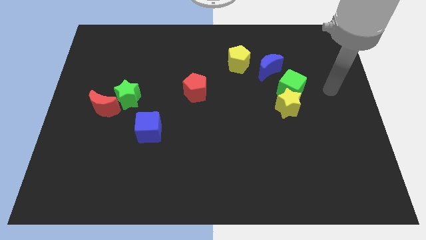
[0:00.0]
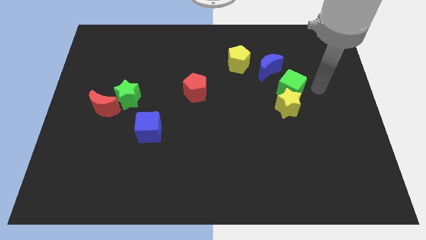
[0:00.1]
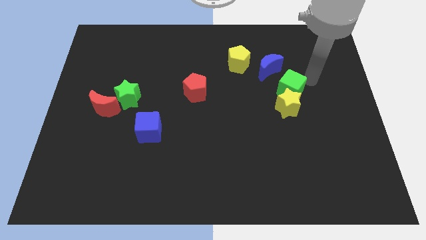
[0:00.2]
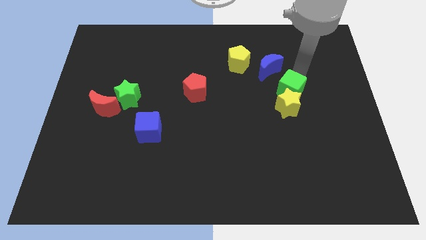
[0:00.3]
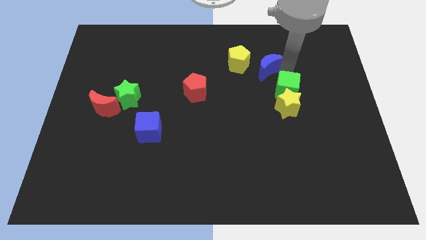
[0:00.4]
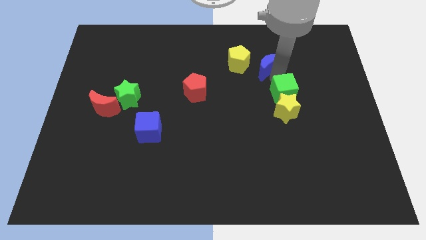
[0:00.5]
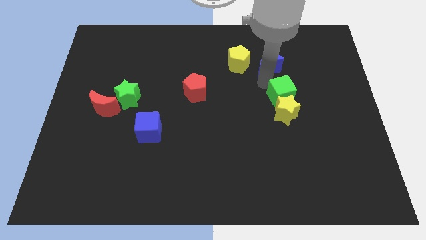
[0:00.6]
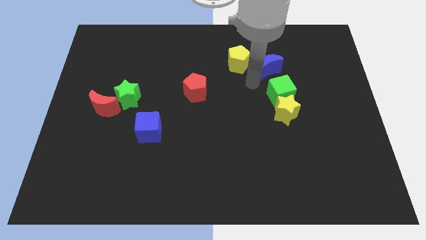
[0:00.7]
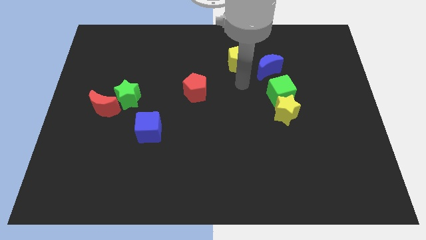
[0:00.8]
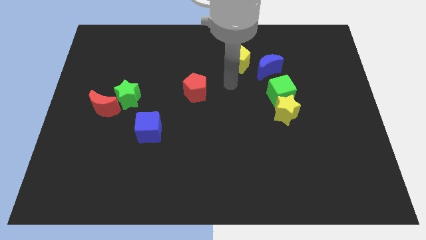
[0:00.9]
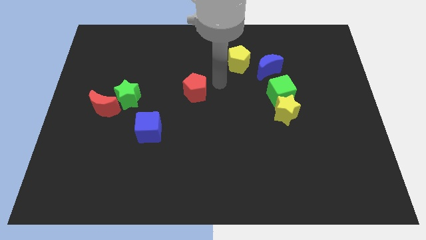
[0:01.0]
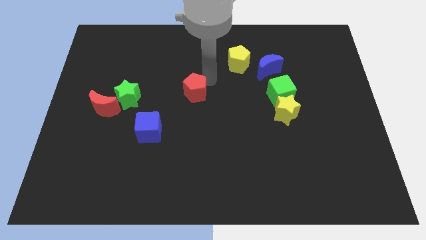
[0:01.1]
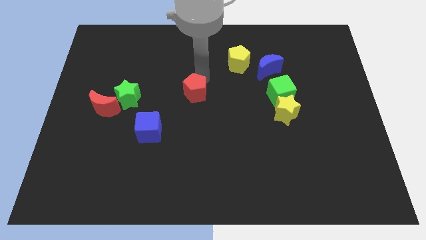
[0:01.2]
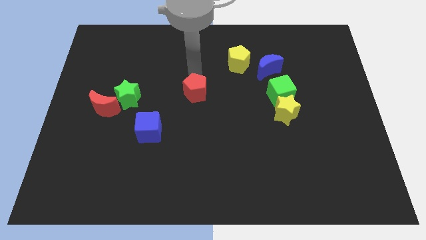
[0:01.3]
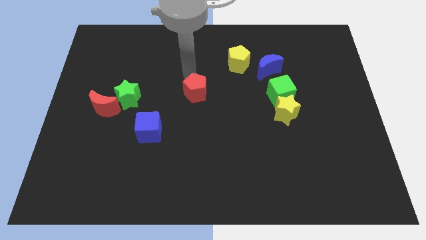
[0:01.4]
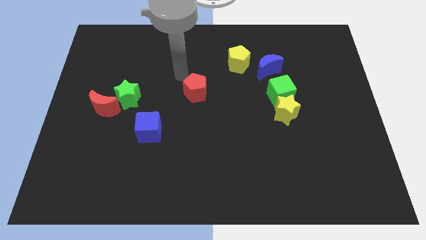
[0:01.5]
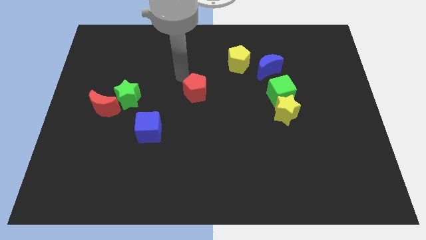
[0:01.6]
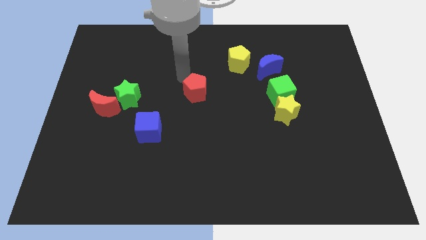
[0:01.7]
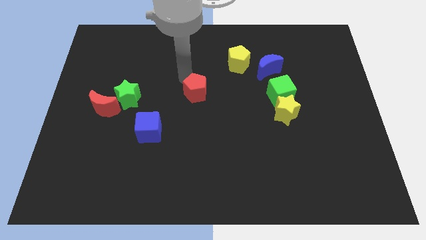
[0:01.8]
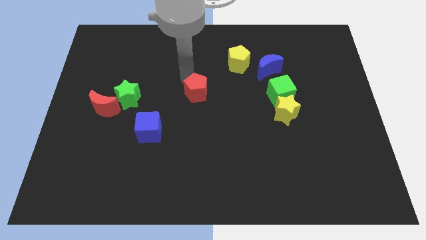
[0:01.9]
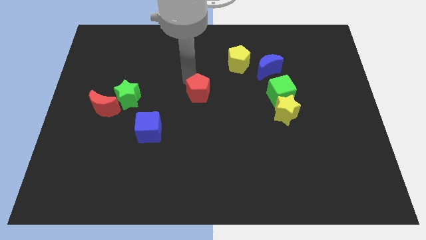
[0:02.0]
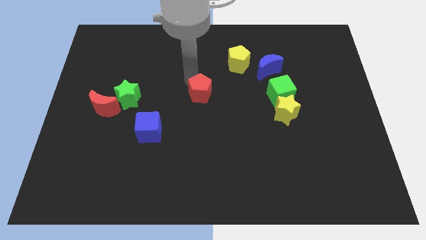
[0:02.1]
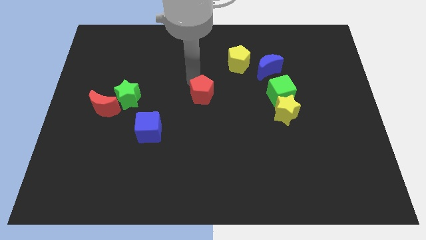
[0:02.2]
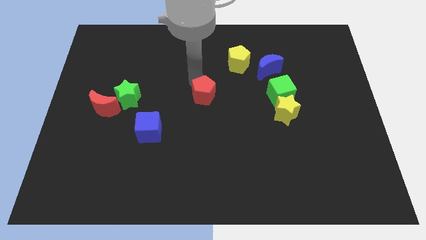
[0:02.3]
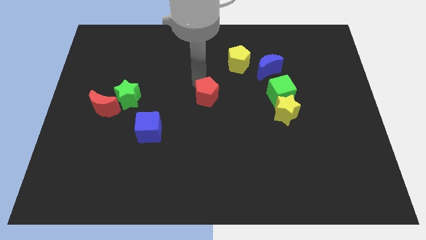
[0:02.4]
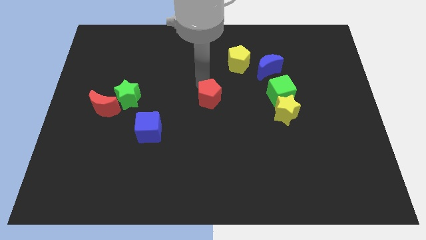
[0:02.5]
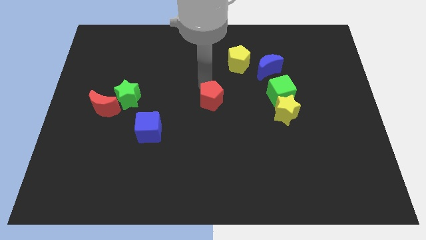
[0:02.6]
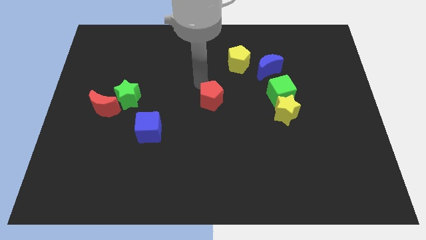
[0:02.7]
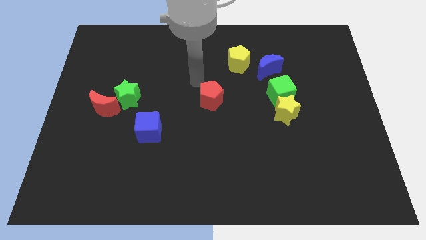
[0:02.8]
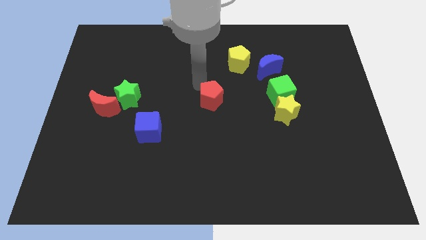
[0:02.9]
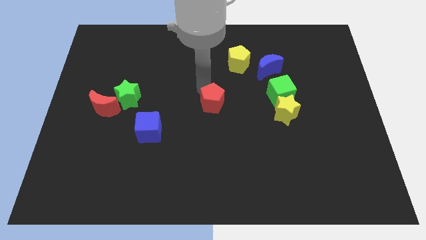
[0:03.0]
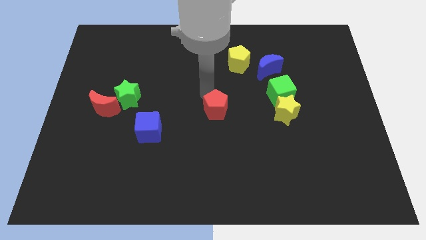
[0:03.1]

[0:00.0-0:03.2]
push the red pentagon slightly downwards and to the right

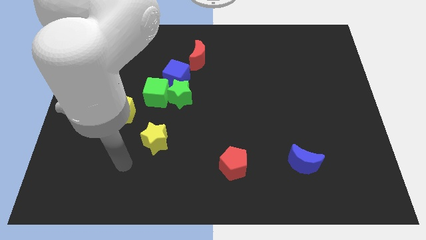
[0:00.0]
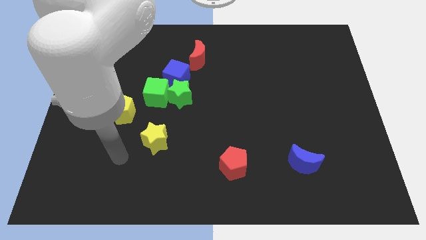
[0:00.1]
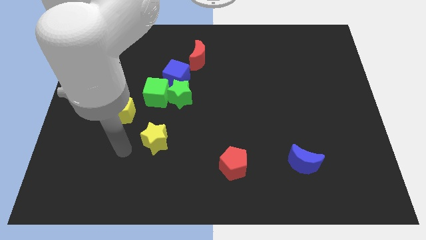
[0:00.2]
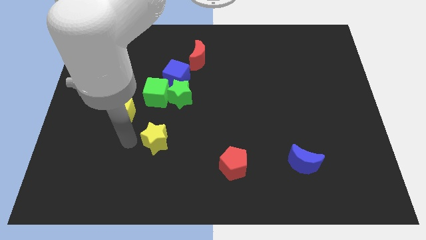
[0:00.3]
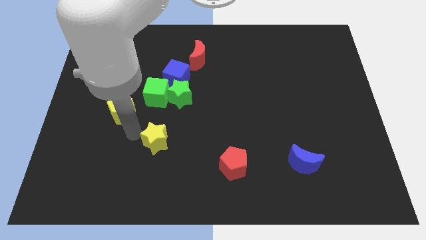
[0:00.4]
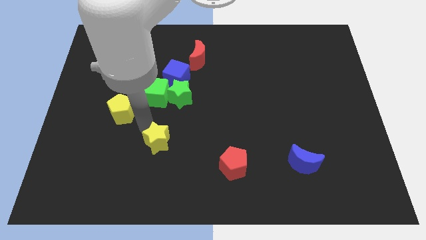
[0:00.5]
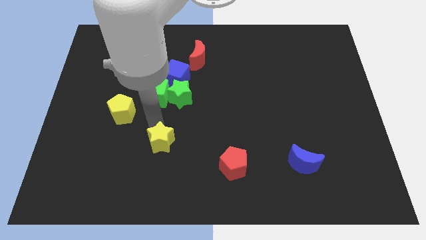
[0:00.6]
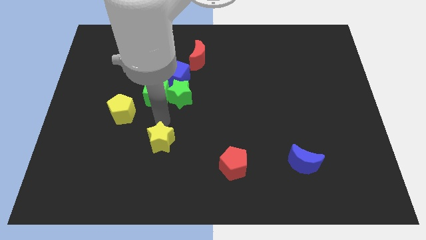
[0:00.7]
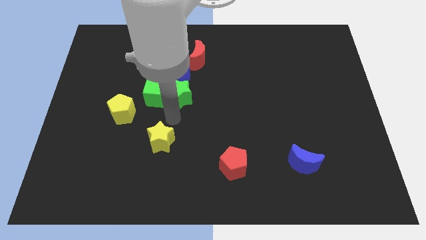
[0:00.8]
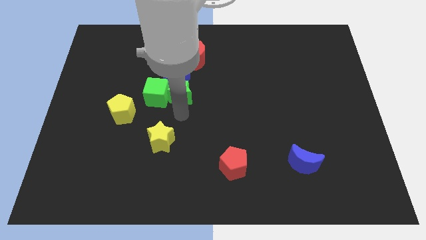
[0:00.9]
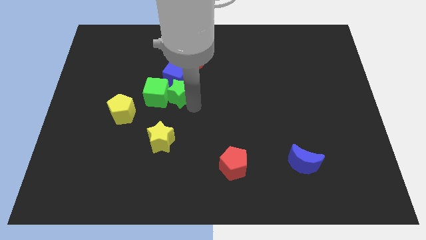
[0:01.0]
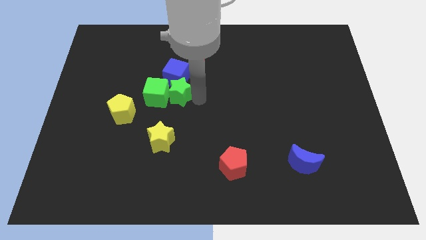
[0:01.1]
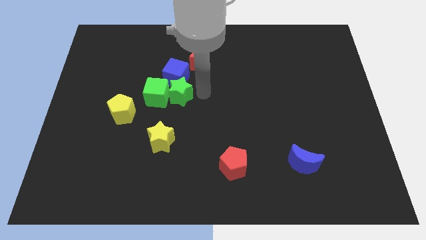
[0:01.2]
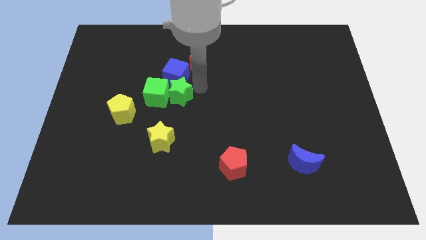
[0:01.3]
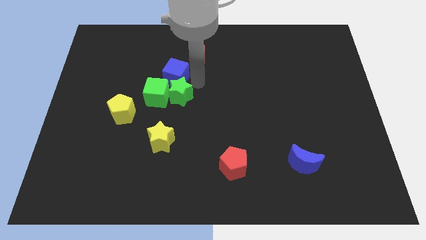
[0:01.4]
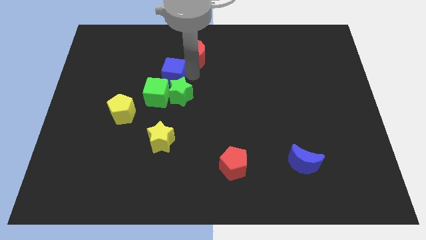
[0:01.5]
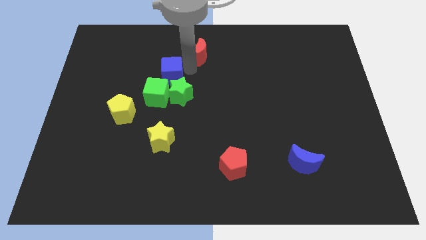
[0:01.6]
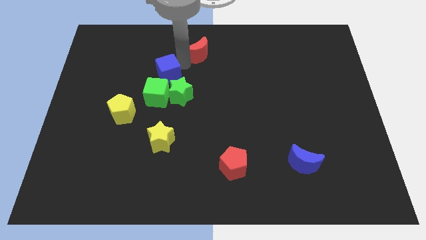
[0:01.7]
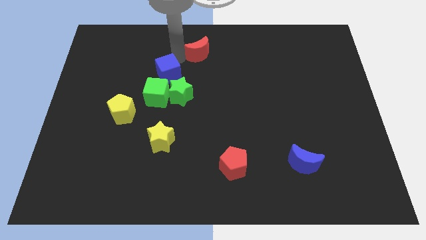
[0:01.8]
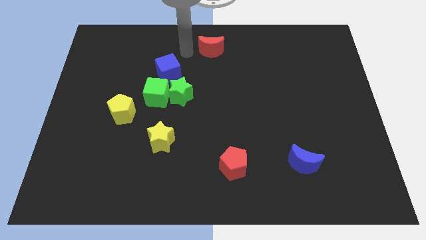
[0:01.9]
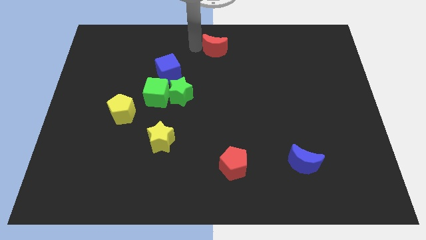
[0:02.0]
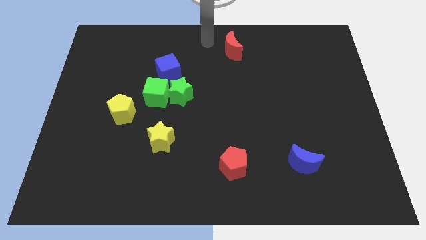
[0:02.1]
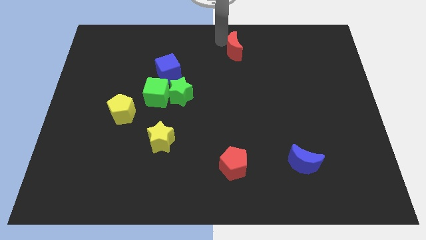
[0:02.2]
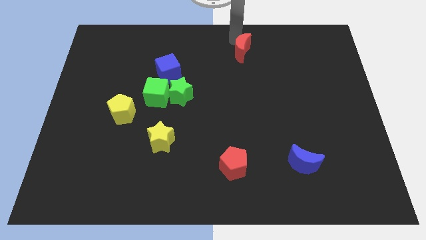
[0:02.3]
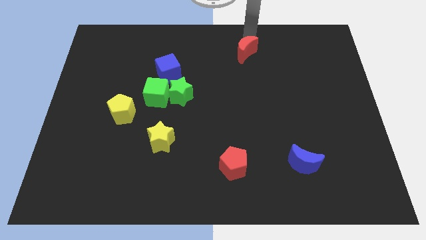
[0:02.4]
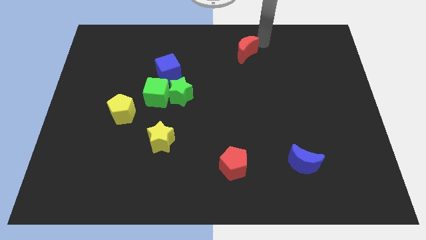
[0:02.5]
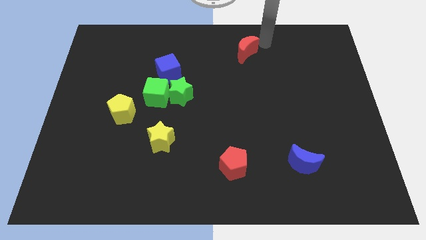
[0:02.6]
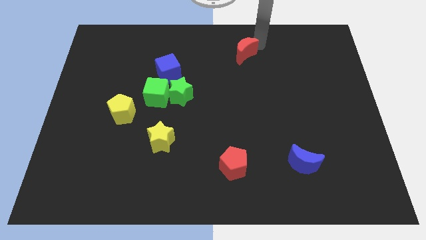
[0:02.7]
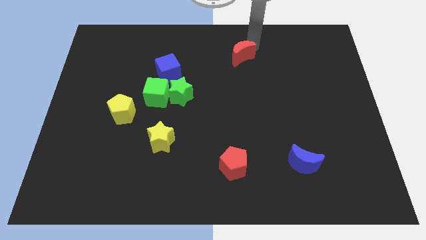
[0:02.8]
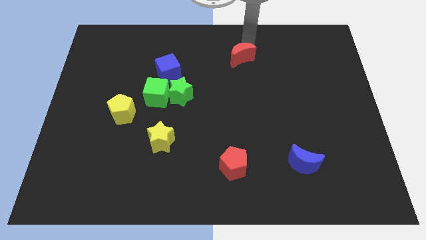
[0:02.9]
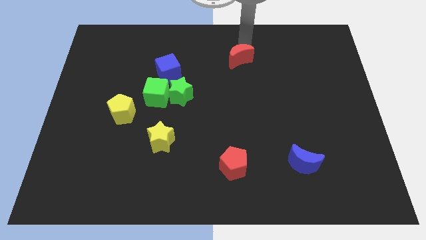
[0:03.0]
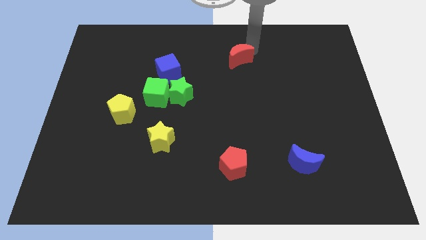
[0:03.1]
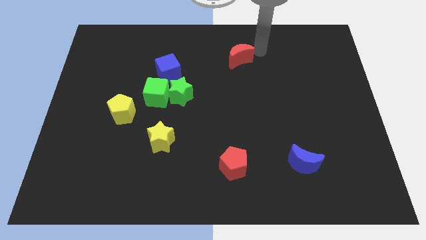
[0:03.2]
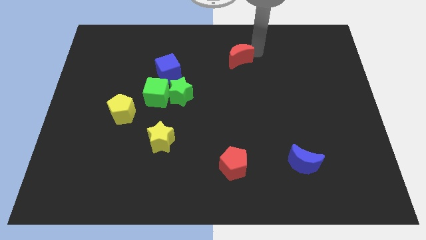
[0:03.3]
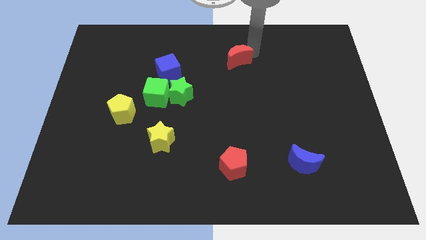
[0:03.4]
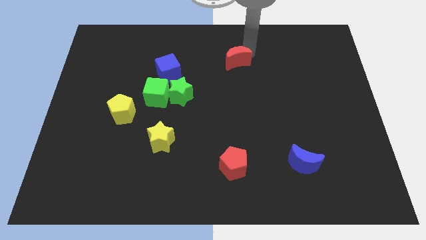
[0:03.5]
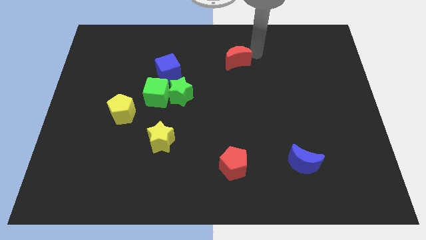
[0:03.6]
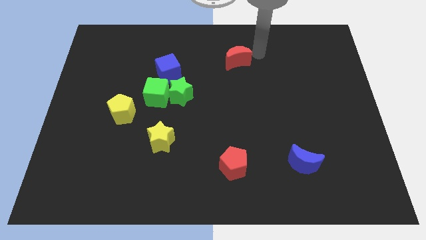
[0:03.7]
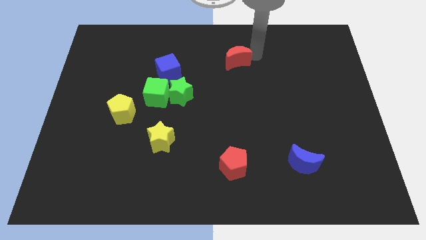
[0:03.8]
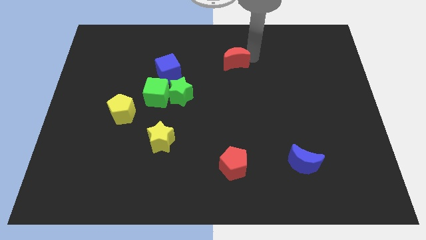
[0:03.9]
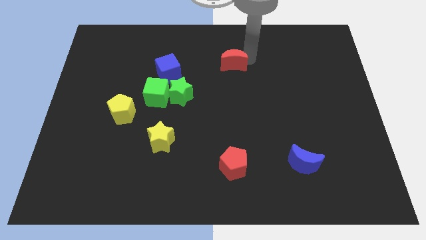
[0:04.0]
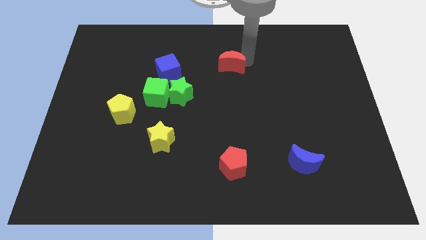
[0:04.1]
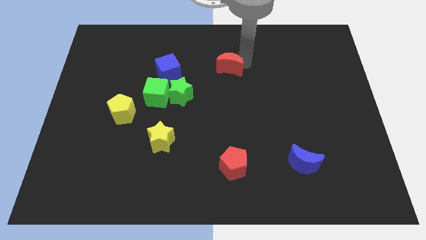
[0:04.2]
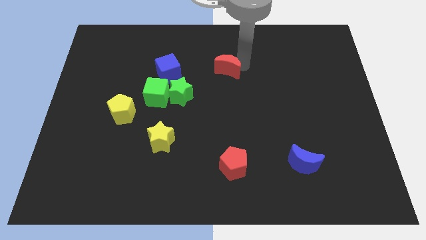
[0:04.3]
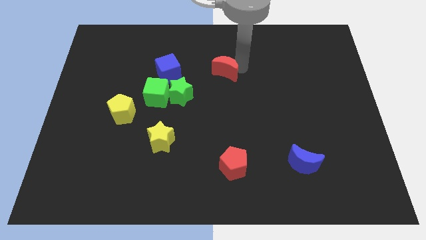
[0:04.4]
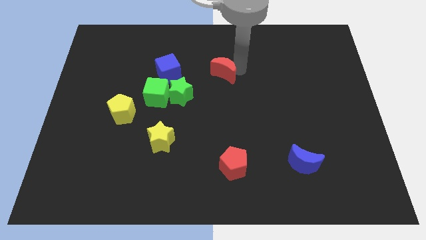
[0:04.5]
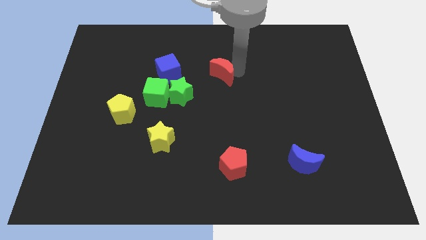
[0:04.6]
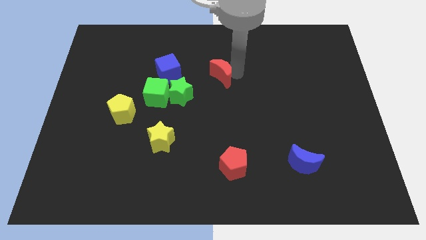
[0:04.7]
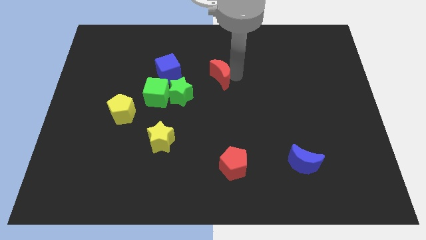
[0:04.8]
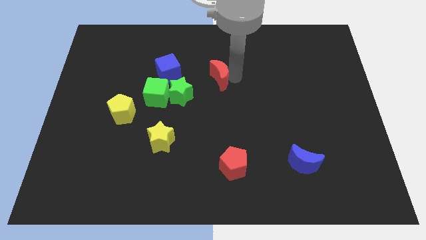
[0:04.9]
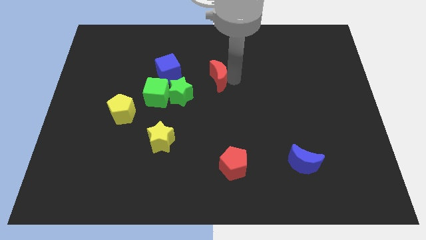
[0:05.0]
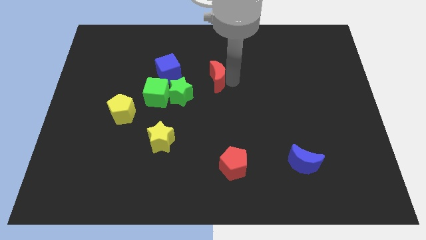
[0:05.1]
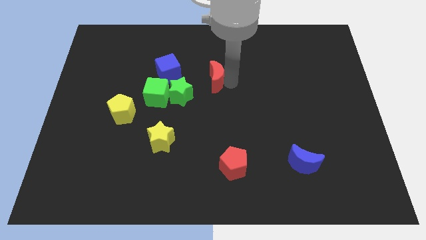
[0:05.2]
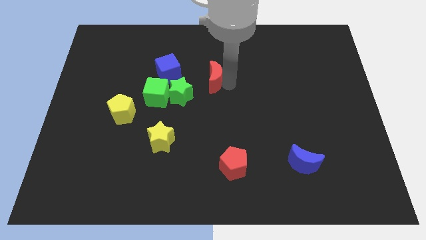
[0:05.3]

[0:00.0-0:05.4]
slide the red moon slightly downwards
